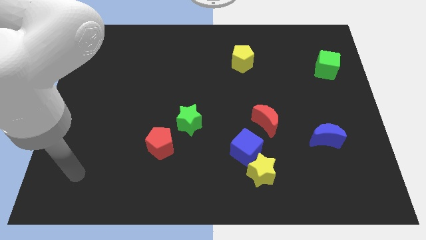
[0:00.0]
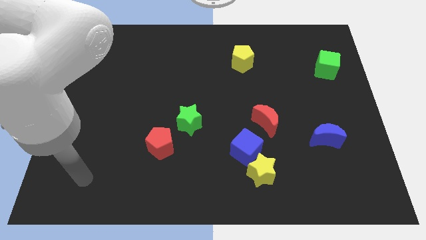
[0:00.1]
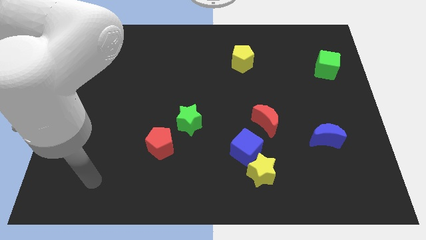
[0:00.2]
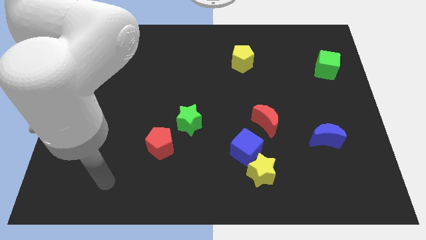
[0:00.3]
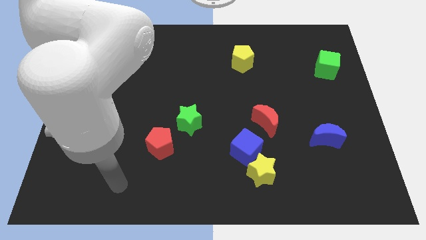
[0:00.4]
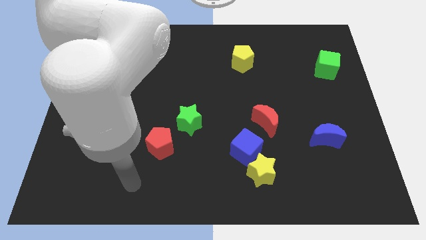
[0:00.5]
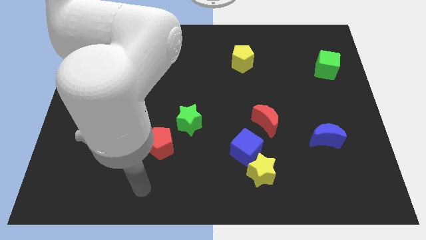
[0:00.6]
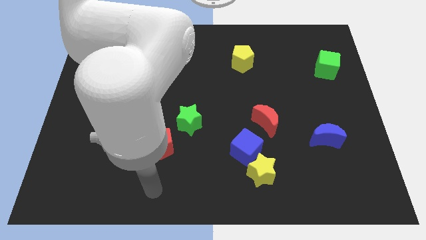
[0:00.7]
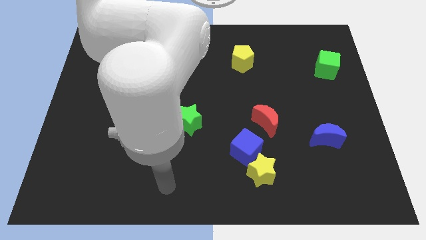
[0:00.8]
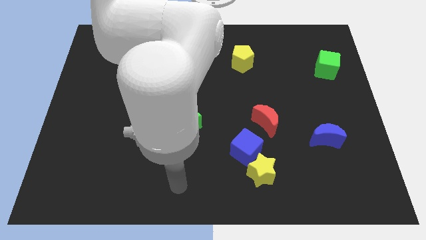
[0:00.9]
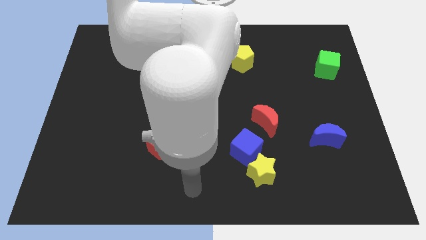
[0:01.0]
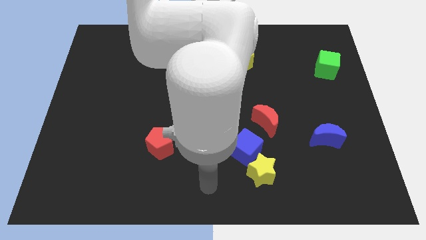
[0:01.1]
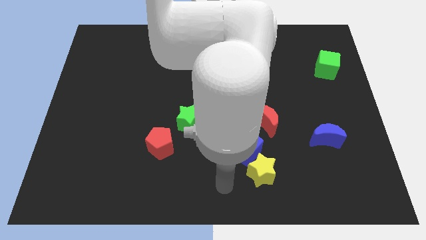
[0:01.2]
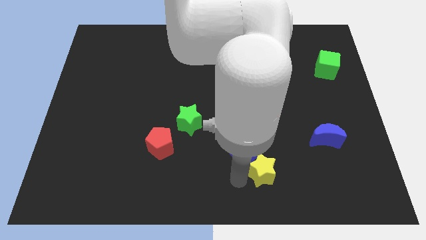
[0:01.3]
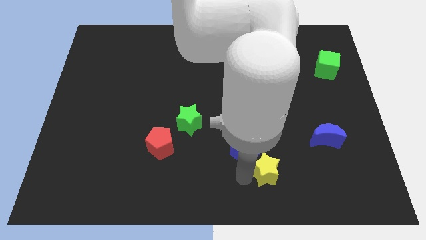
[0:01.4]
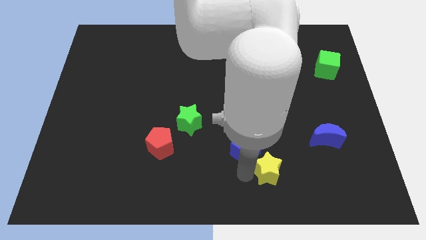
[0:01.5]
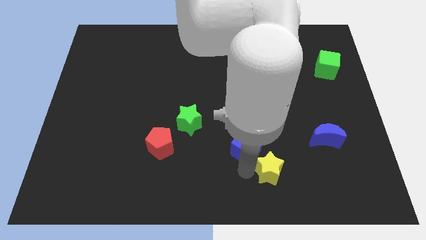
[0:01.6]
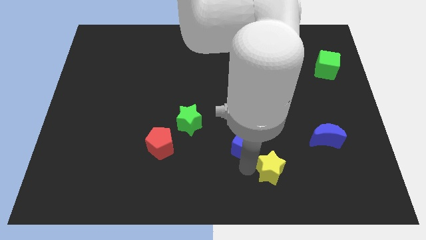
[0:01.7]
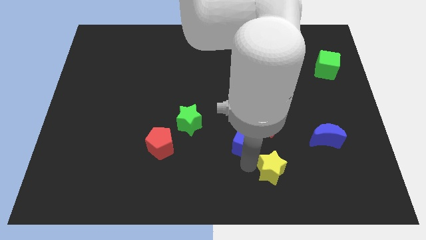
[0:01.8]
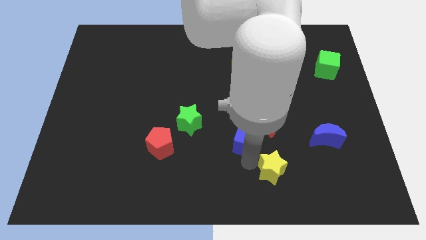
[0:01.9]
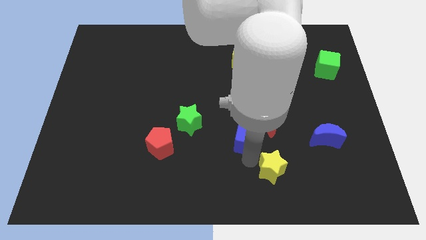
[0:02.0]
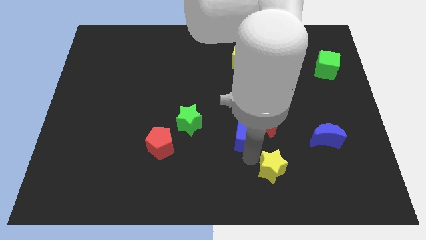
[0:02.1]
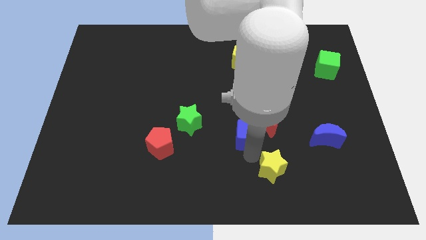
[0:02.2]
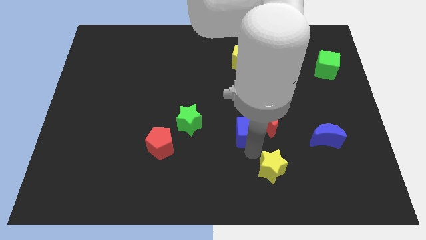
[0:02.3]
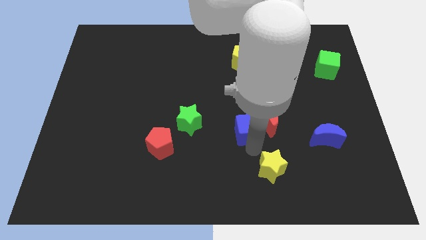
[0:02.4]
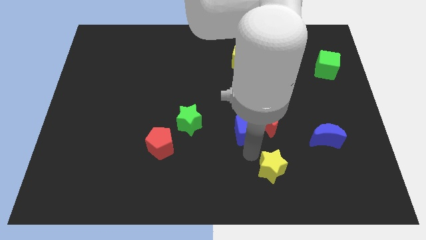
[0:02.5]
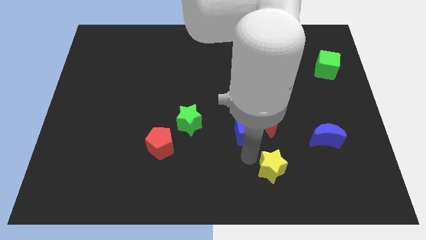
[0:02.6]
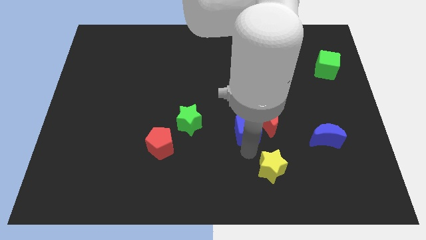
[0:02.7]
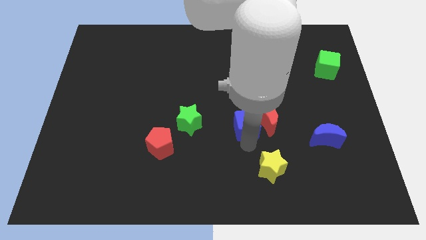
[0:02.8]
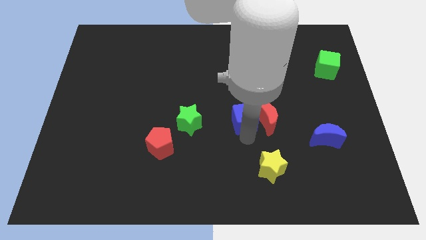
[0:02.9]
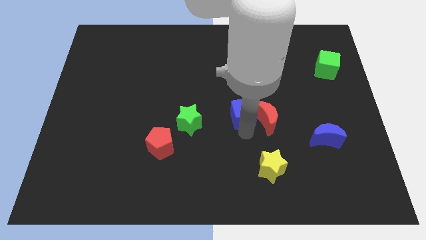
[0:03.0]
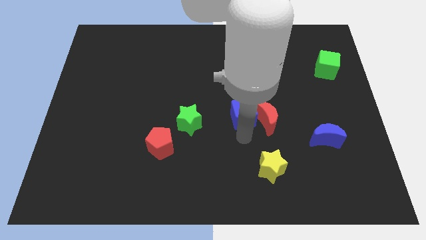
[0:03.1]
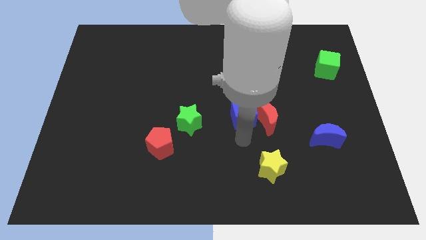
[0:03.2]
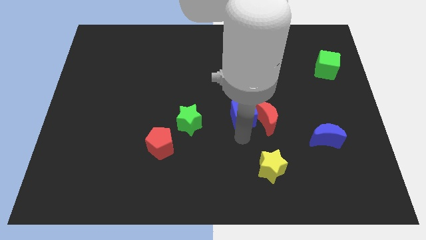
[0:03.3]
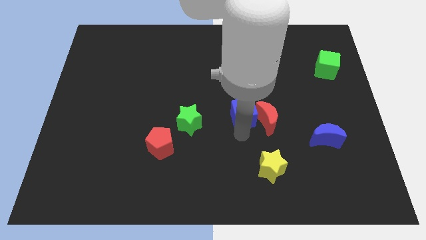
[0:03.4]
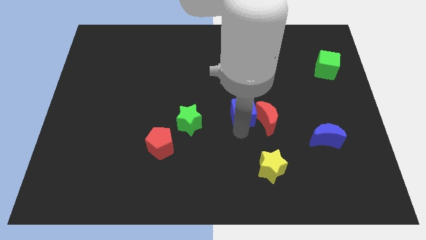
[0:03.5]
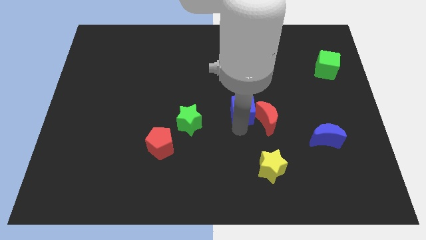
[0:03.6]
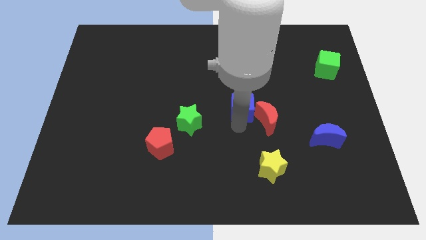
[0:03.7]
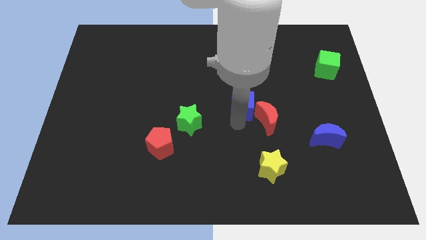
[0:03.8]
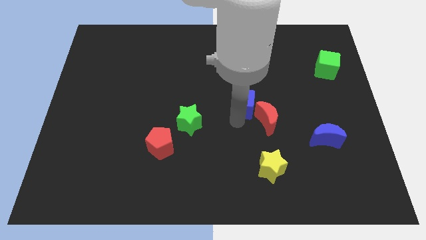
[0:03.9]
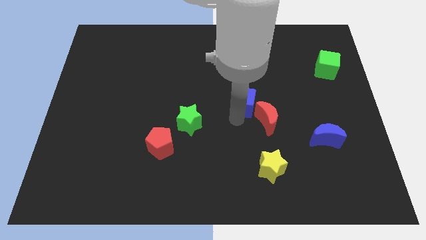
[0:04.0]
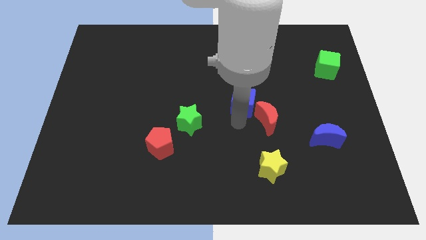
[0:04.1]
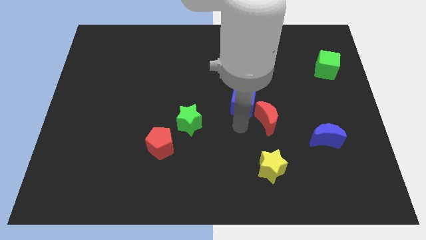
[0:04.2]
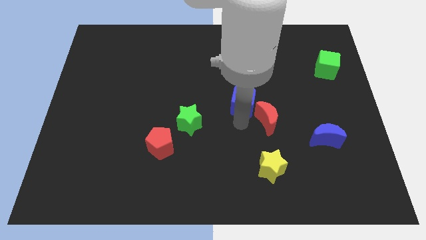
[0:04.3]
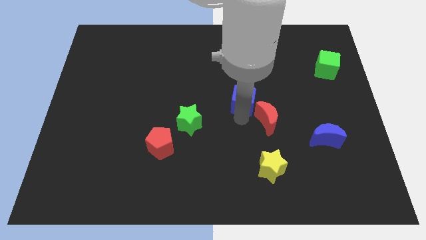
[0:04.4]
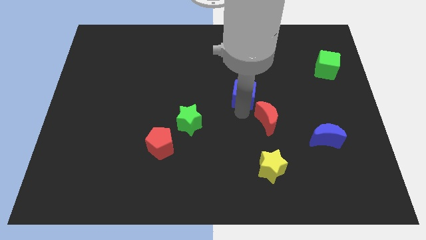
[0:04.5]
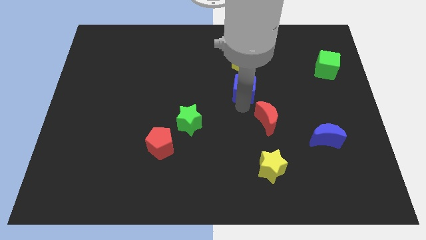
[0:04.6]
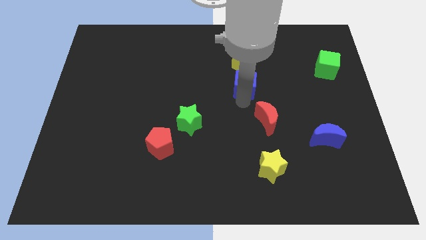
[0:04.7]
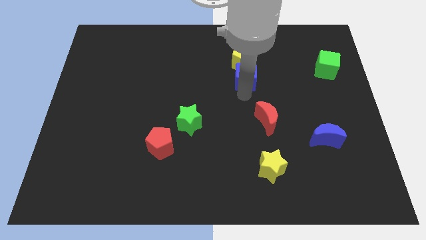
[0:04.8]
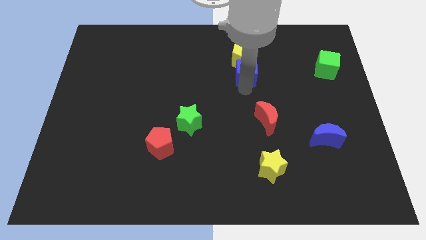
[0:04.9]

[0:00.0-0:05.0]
slide the blue cube to the yellow pentagon

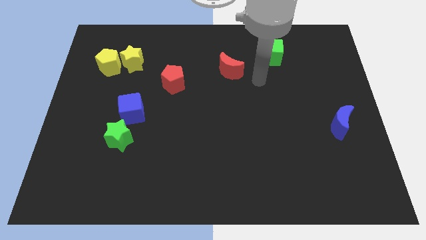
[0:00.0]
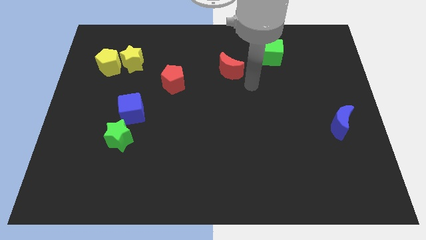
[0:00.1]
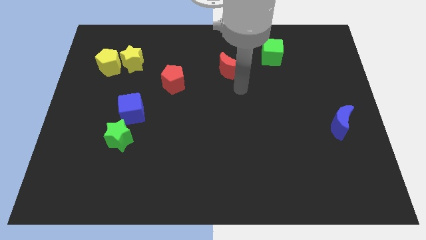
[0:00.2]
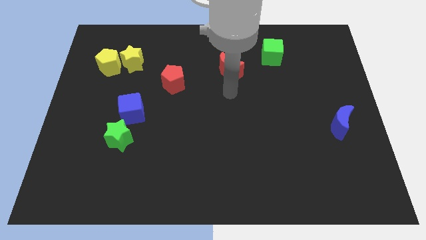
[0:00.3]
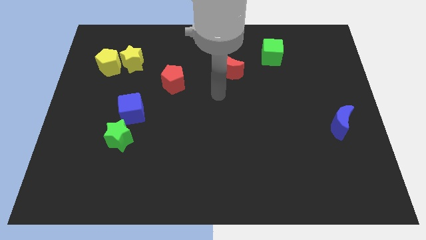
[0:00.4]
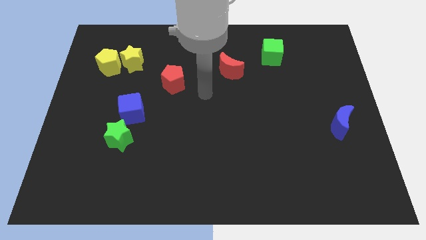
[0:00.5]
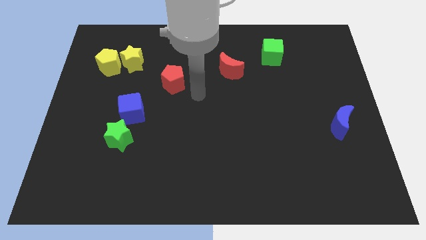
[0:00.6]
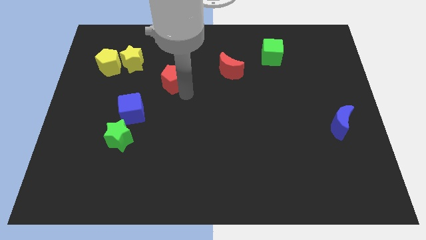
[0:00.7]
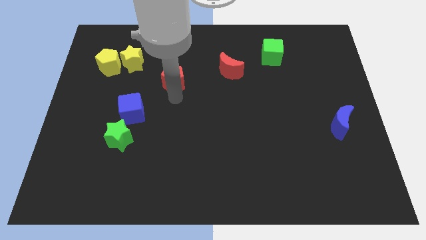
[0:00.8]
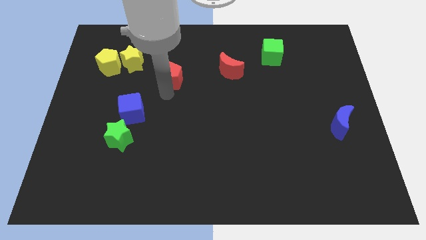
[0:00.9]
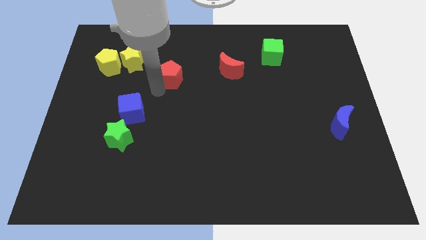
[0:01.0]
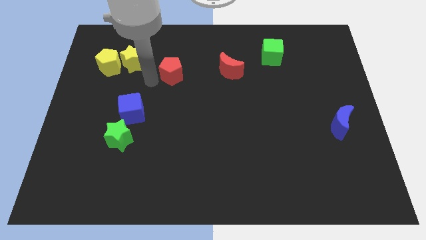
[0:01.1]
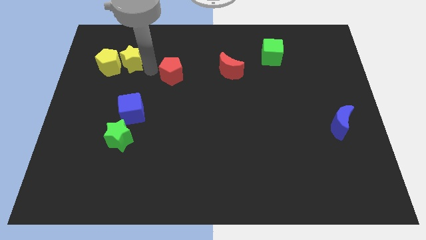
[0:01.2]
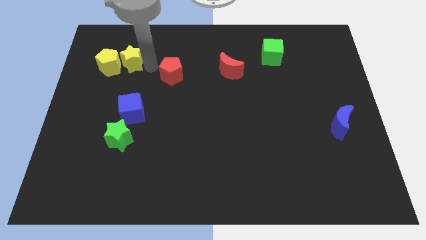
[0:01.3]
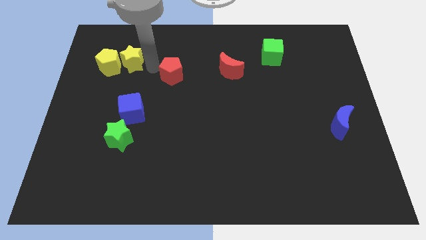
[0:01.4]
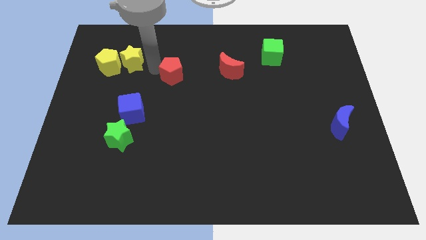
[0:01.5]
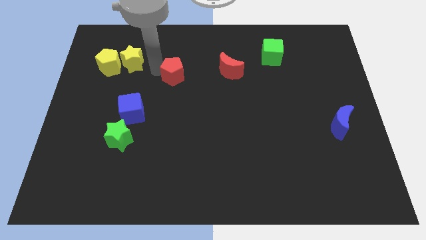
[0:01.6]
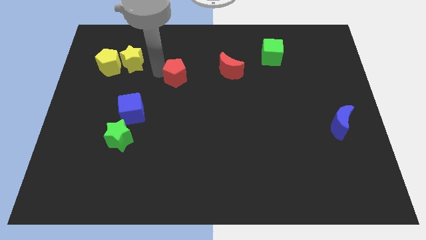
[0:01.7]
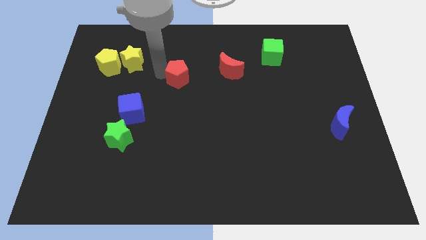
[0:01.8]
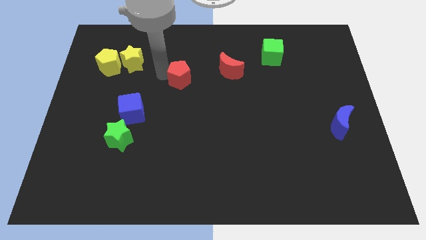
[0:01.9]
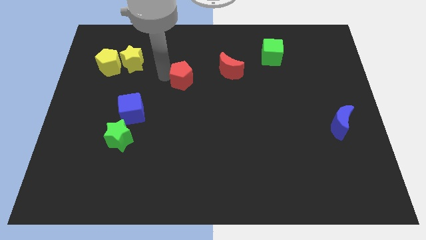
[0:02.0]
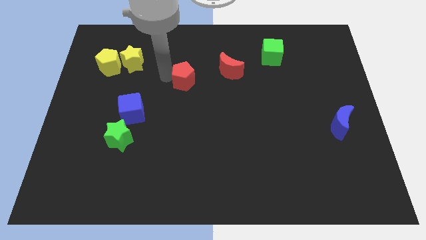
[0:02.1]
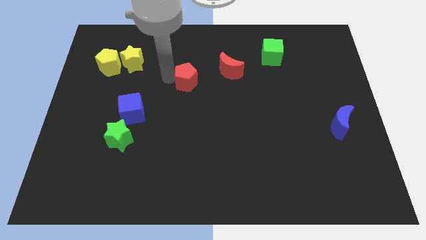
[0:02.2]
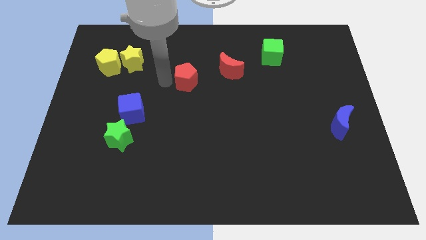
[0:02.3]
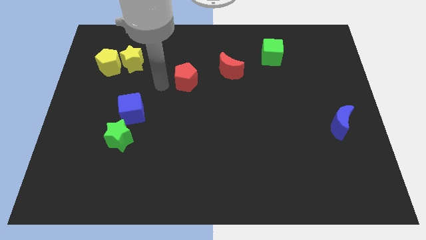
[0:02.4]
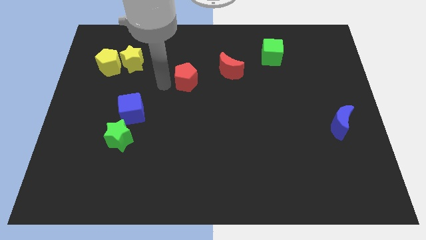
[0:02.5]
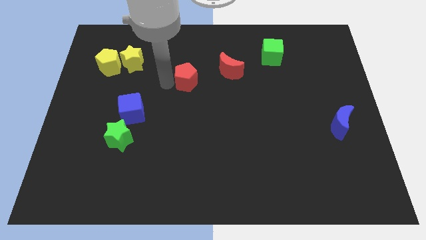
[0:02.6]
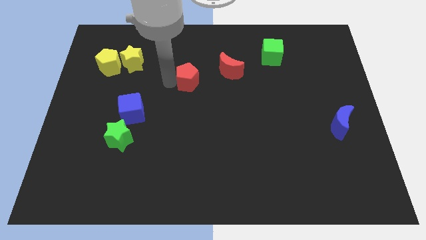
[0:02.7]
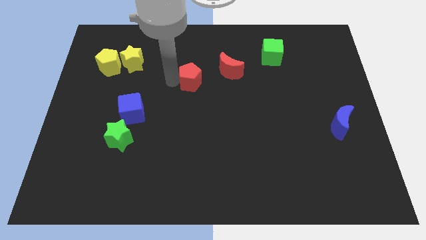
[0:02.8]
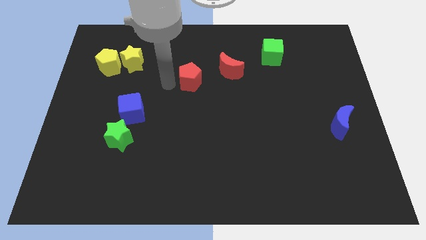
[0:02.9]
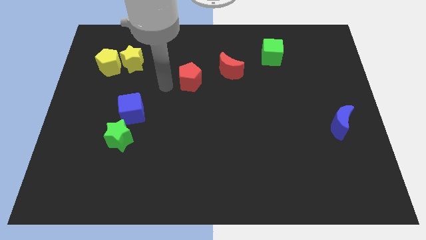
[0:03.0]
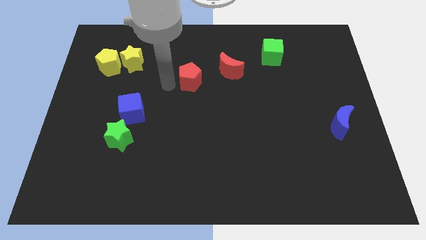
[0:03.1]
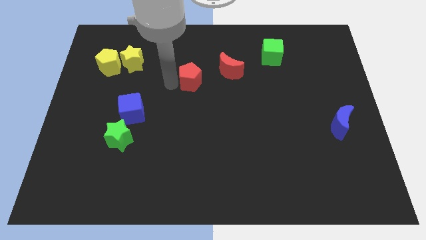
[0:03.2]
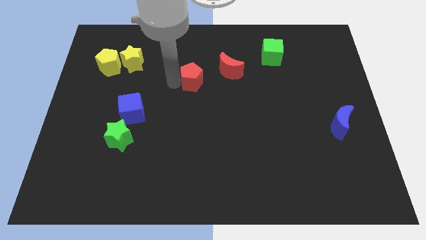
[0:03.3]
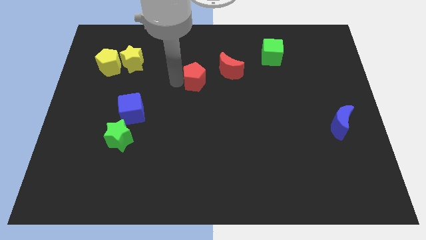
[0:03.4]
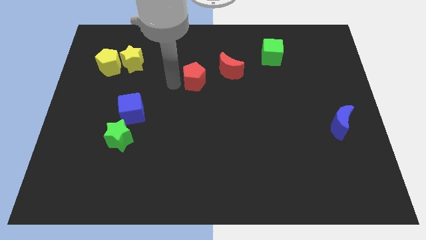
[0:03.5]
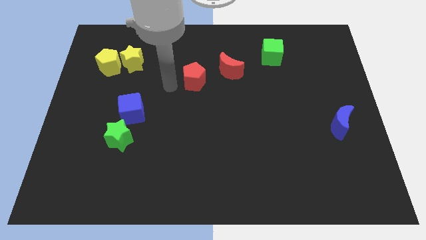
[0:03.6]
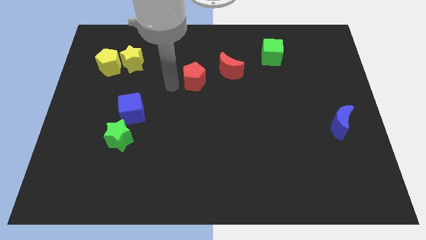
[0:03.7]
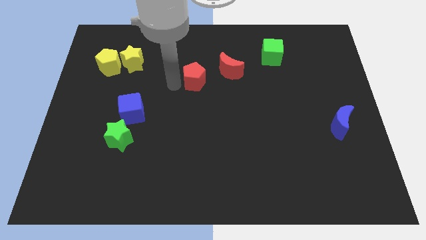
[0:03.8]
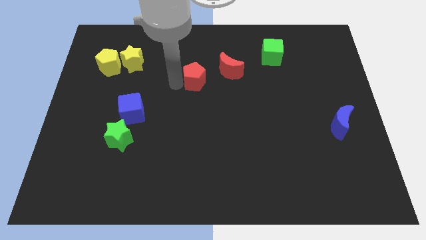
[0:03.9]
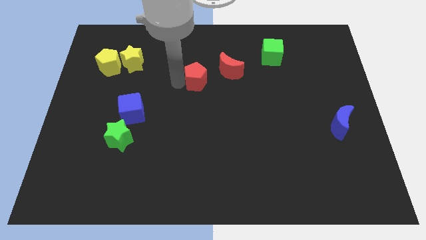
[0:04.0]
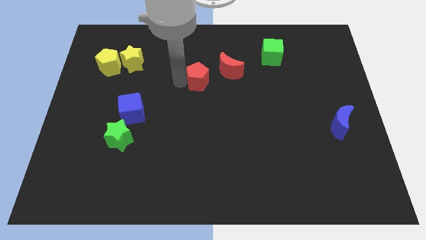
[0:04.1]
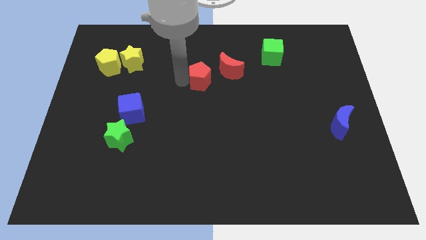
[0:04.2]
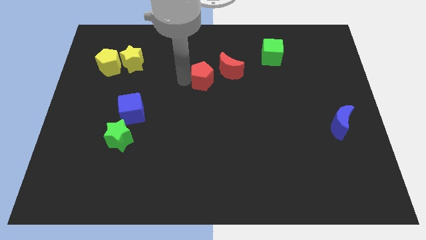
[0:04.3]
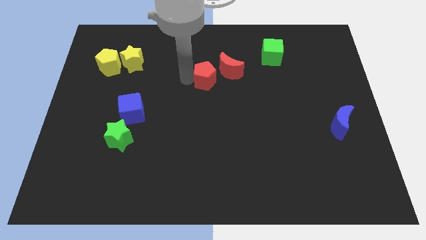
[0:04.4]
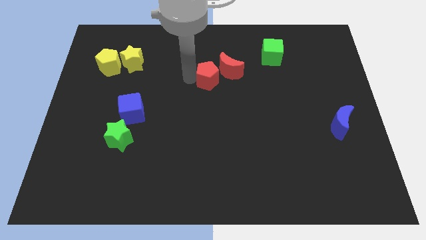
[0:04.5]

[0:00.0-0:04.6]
move the red pentagon close to the red moon
